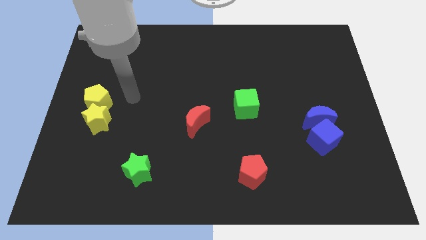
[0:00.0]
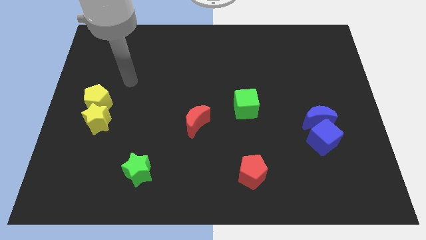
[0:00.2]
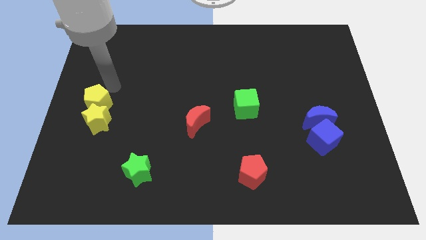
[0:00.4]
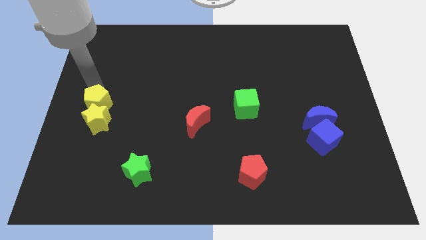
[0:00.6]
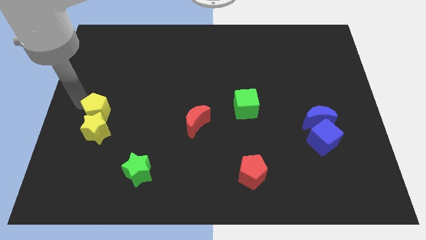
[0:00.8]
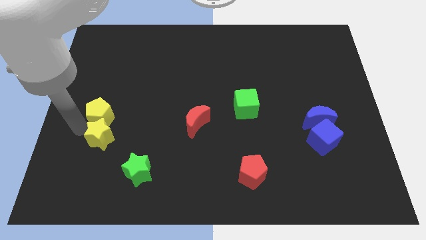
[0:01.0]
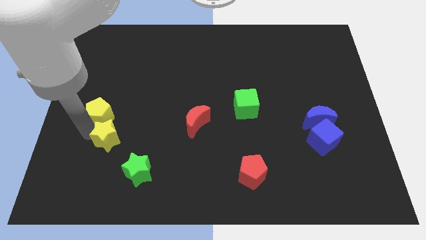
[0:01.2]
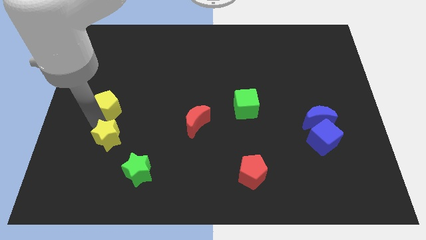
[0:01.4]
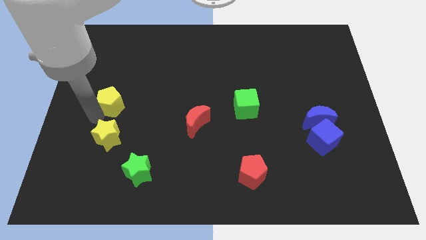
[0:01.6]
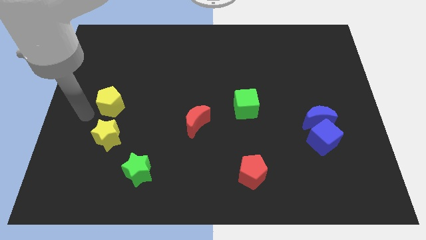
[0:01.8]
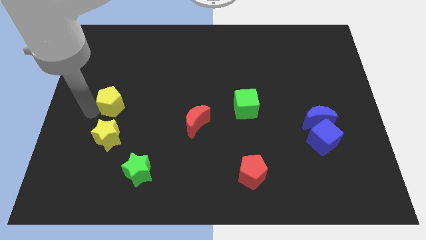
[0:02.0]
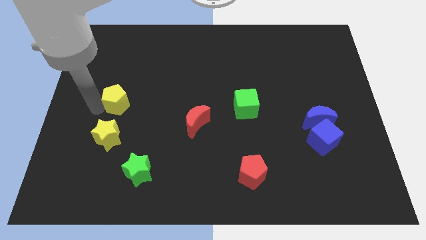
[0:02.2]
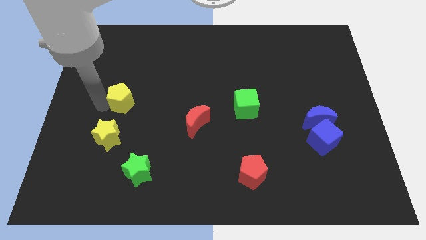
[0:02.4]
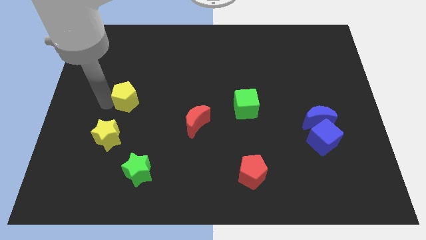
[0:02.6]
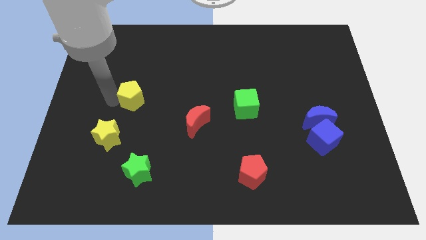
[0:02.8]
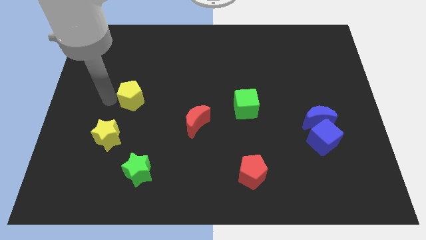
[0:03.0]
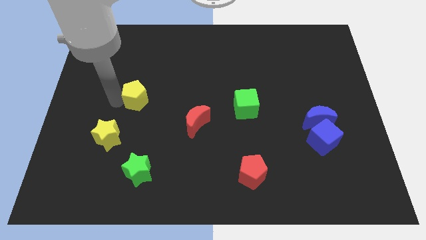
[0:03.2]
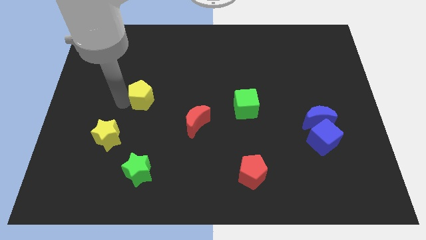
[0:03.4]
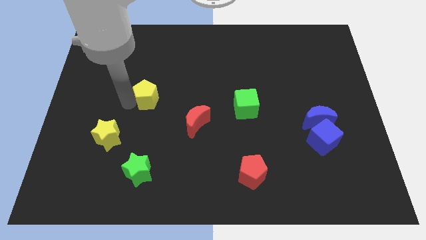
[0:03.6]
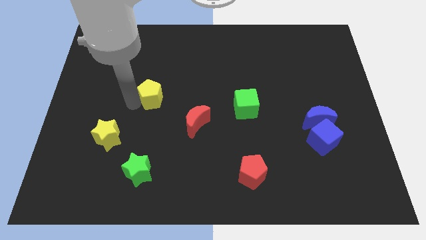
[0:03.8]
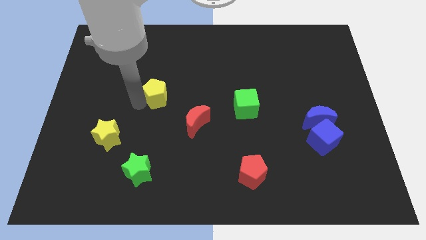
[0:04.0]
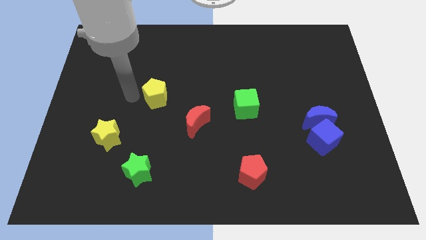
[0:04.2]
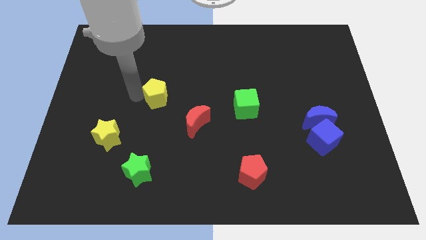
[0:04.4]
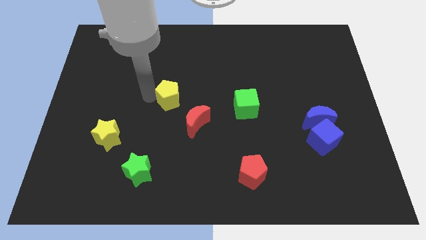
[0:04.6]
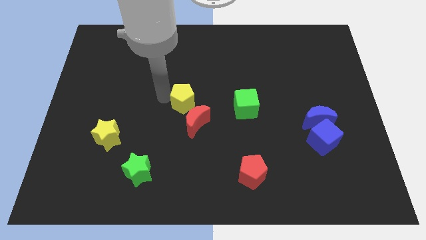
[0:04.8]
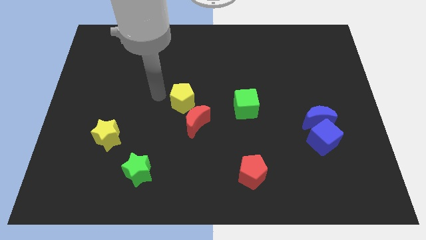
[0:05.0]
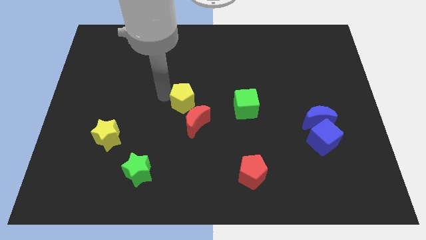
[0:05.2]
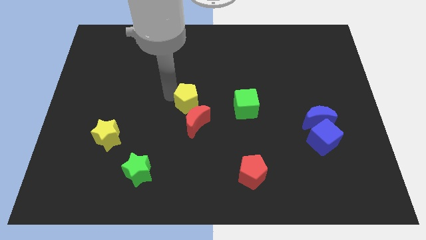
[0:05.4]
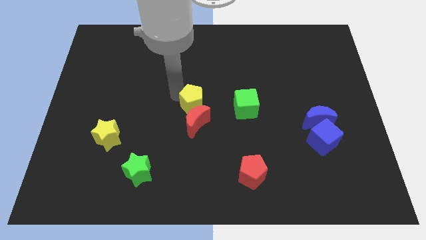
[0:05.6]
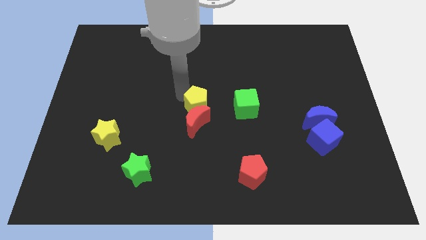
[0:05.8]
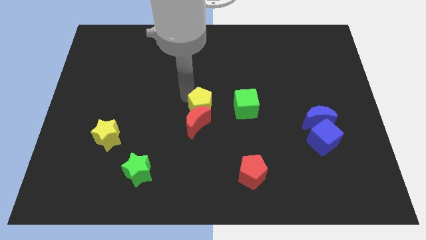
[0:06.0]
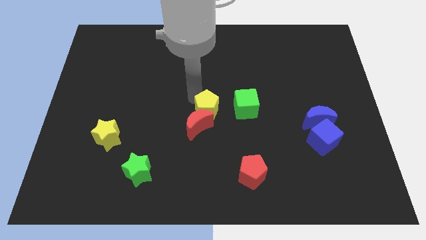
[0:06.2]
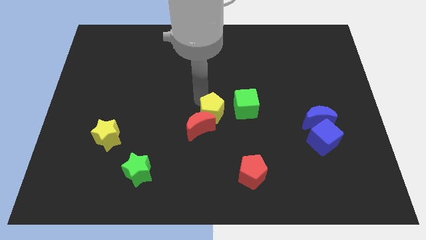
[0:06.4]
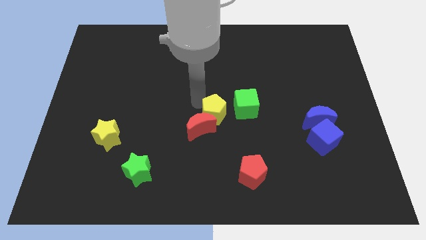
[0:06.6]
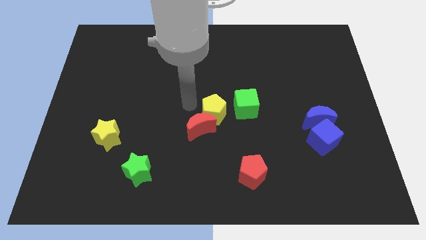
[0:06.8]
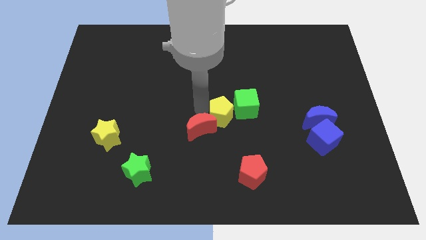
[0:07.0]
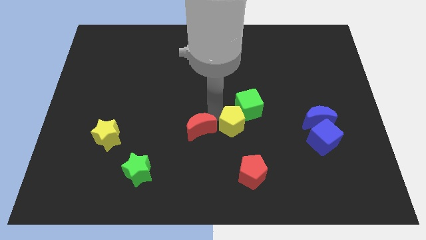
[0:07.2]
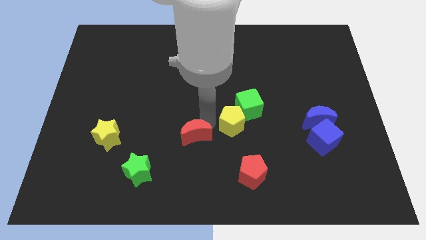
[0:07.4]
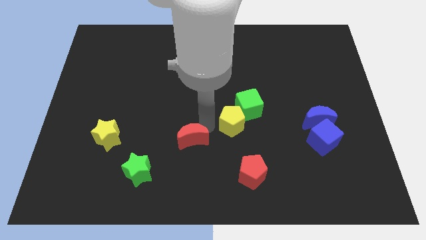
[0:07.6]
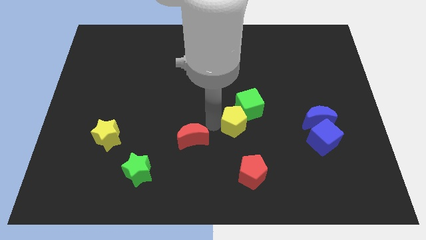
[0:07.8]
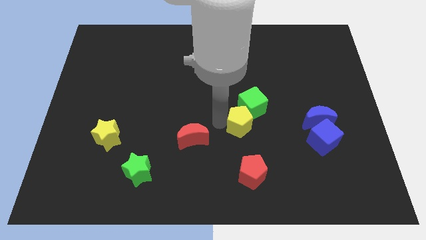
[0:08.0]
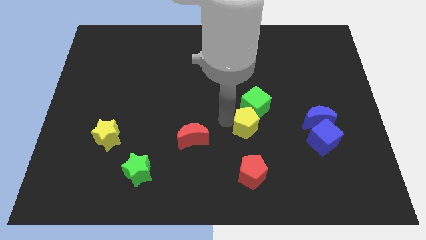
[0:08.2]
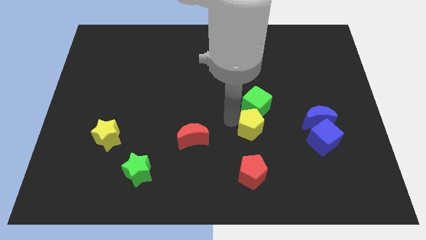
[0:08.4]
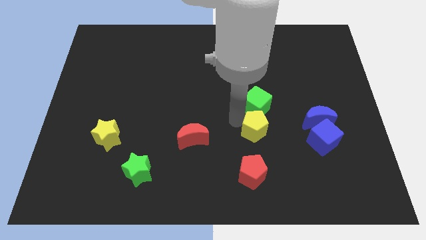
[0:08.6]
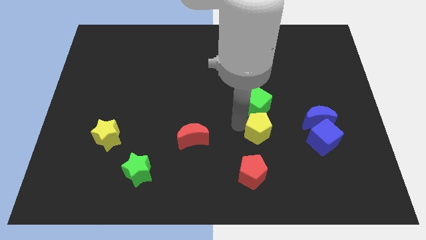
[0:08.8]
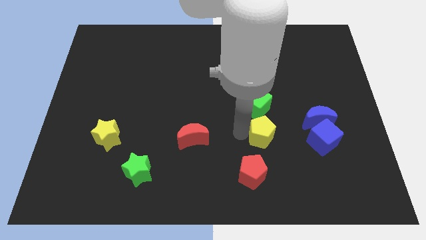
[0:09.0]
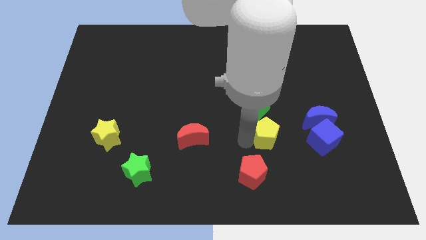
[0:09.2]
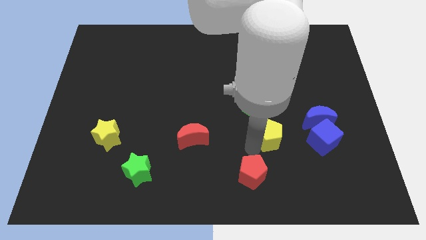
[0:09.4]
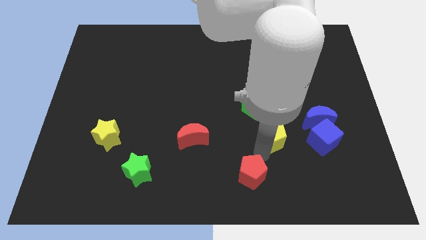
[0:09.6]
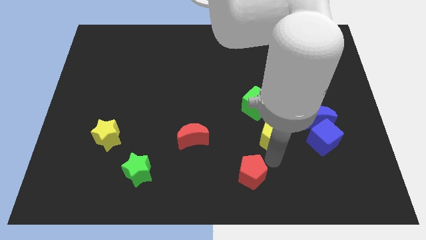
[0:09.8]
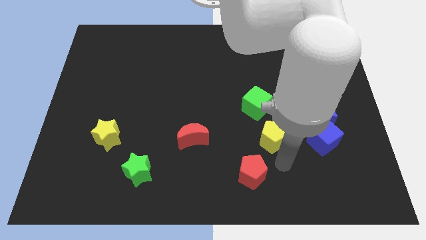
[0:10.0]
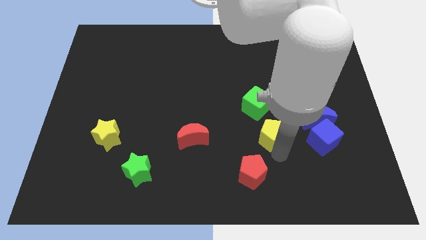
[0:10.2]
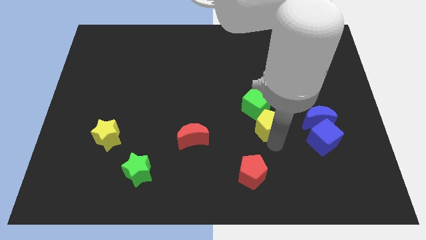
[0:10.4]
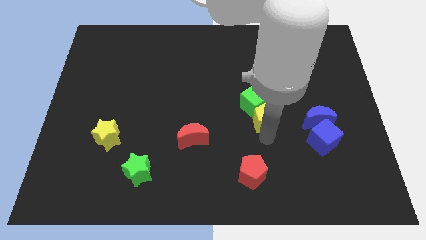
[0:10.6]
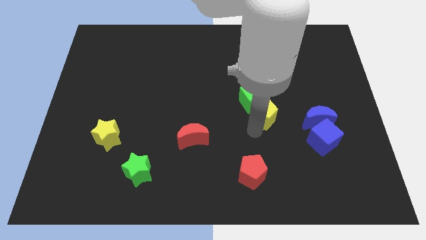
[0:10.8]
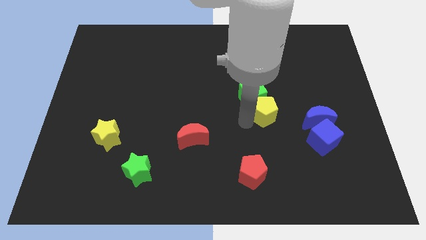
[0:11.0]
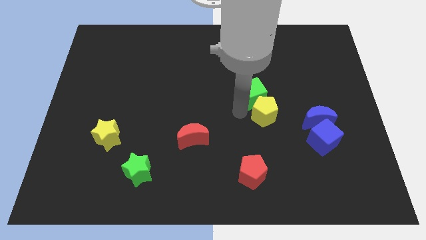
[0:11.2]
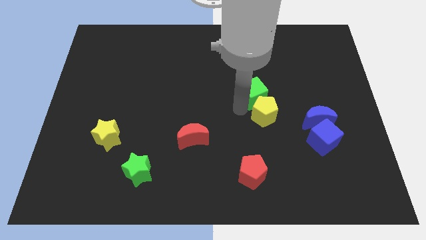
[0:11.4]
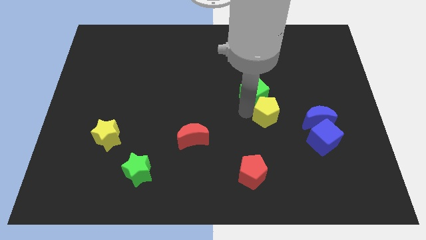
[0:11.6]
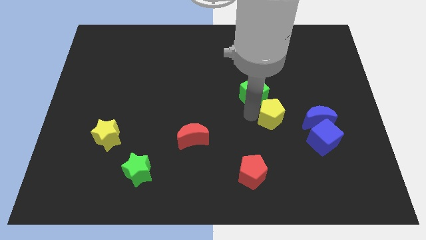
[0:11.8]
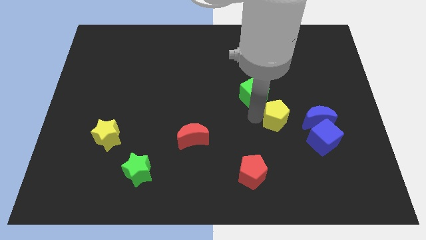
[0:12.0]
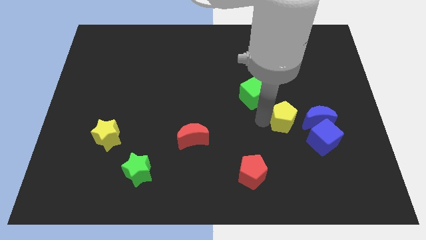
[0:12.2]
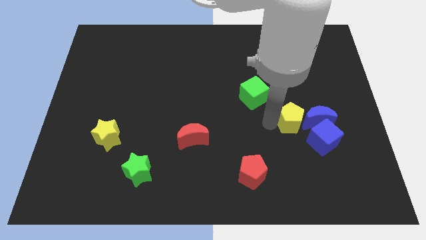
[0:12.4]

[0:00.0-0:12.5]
push the yellow pentagon next to the blue moon

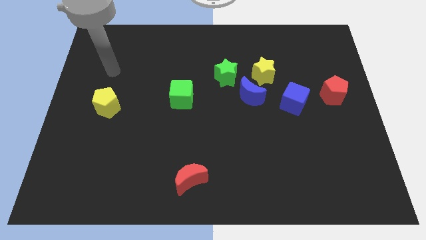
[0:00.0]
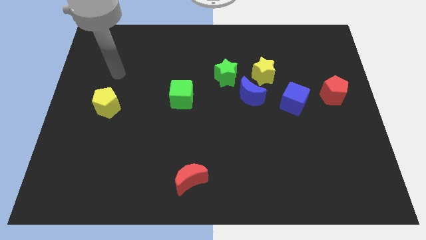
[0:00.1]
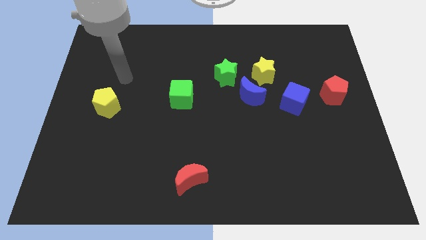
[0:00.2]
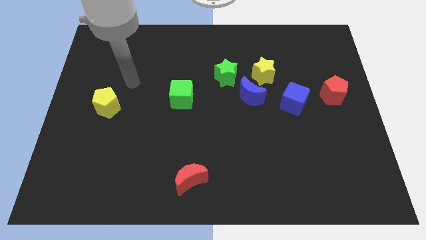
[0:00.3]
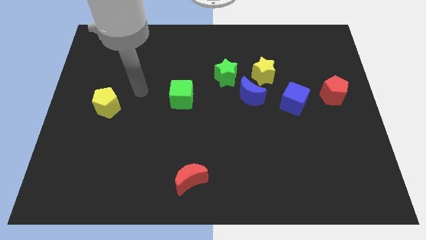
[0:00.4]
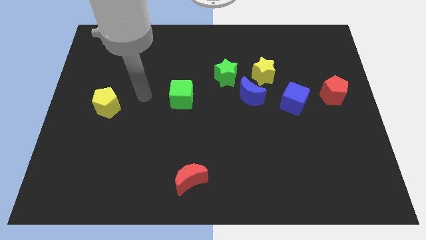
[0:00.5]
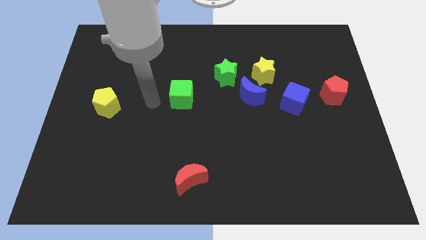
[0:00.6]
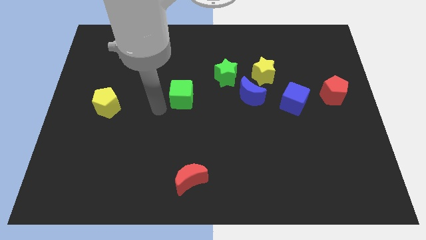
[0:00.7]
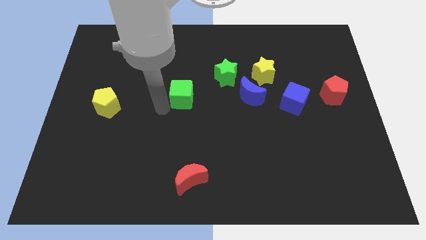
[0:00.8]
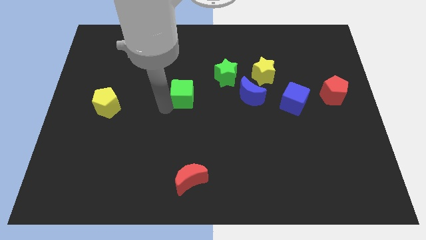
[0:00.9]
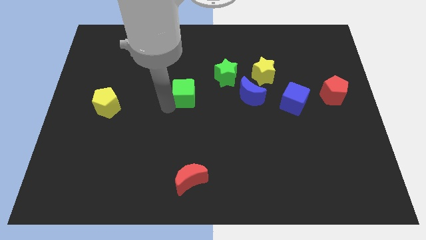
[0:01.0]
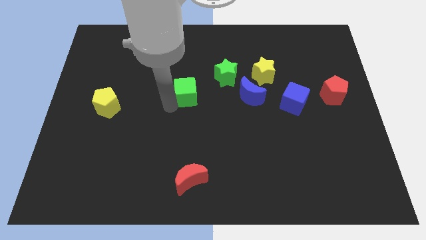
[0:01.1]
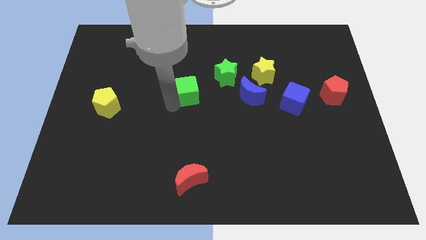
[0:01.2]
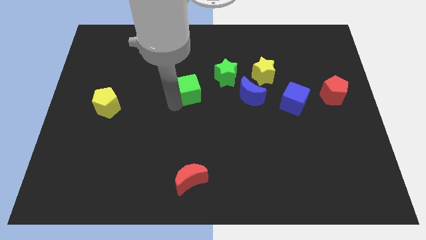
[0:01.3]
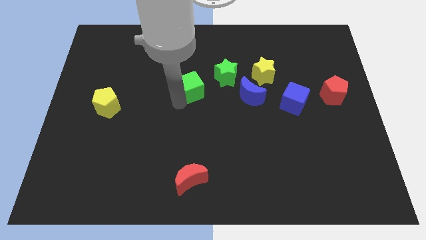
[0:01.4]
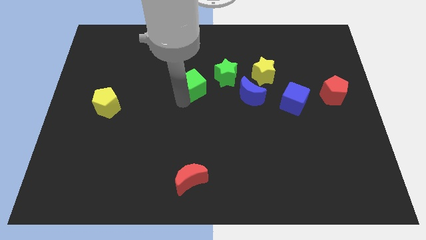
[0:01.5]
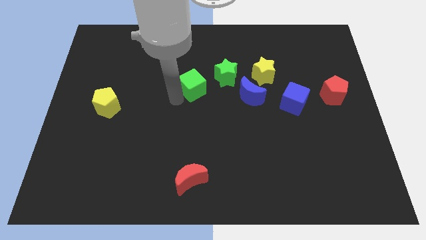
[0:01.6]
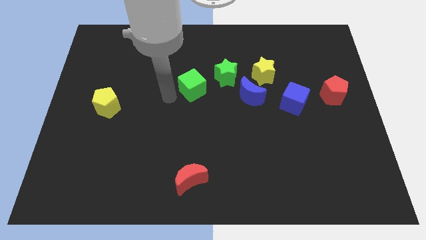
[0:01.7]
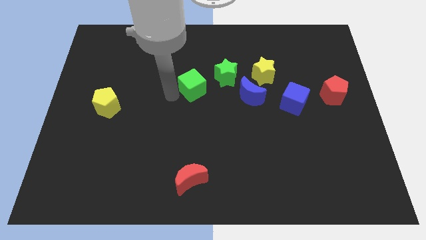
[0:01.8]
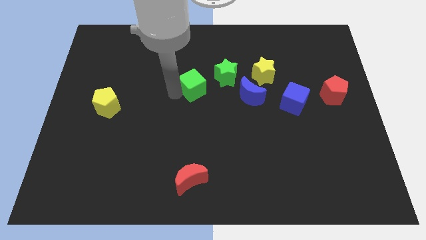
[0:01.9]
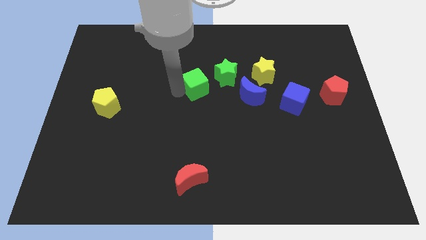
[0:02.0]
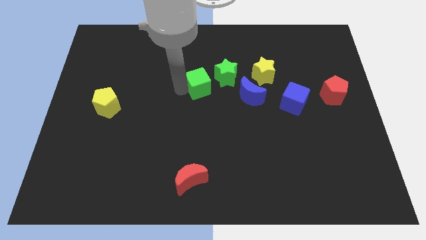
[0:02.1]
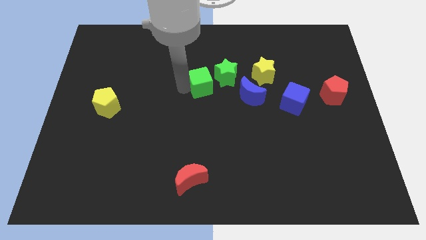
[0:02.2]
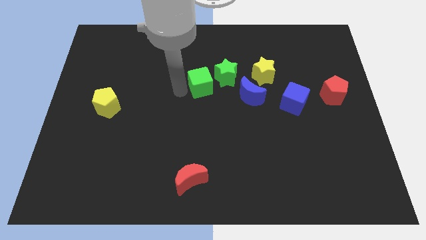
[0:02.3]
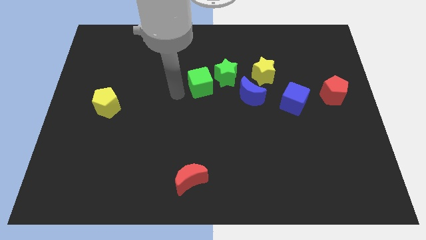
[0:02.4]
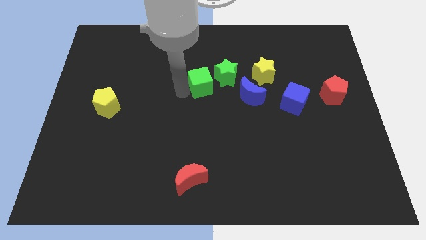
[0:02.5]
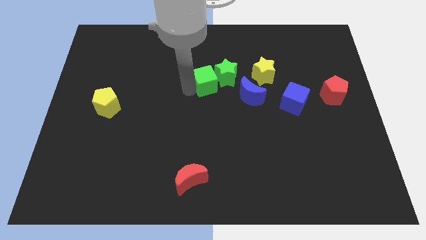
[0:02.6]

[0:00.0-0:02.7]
slide the green cube to the green star
